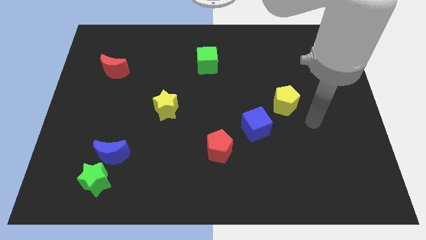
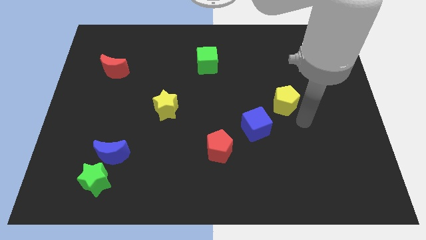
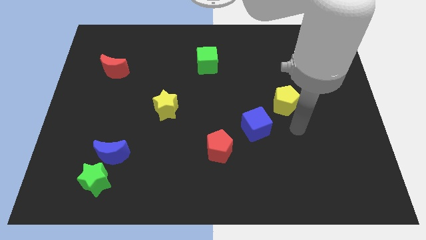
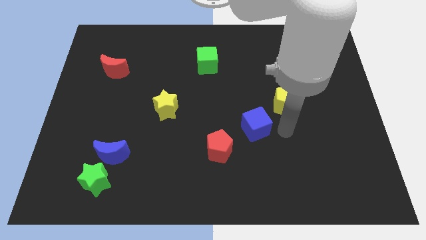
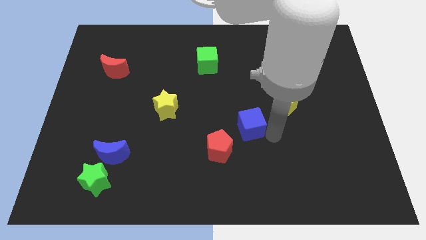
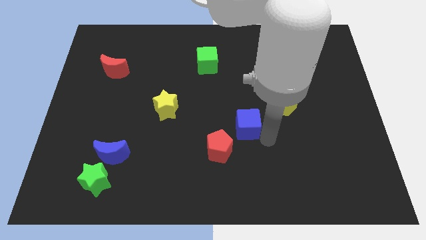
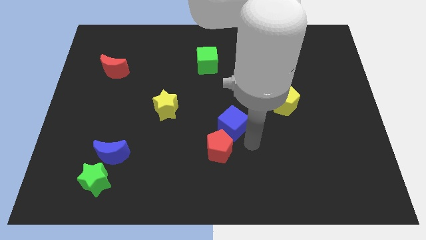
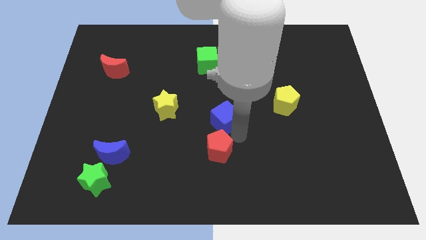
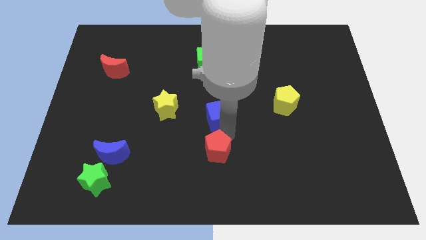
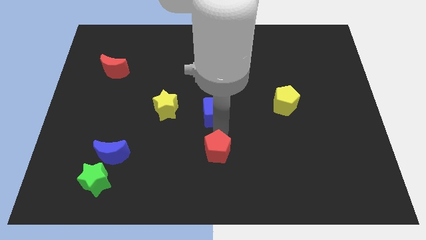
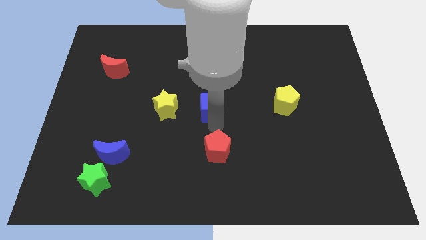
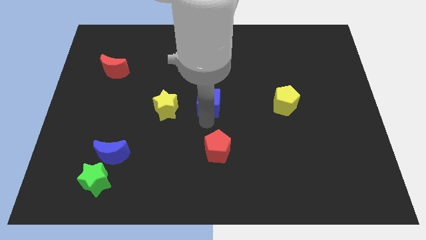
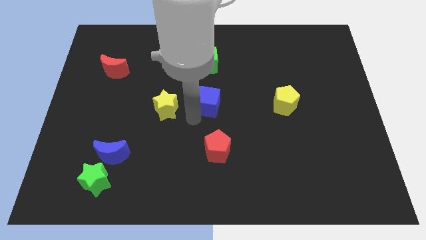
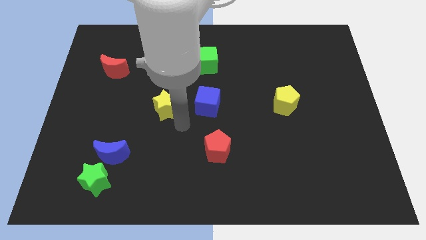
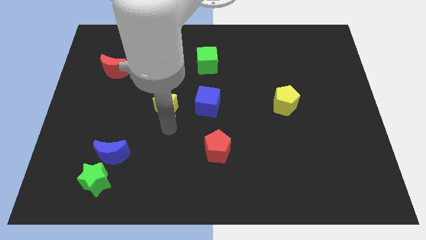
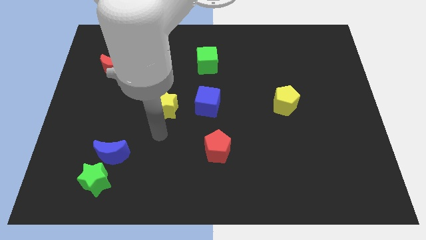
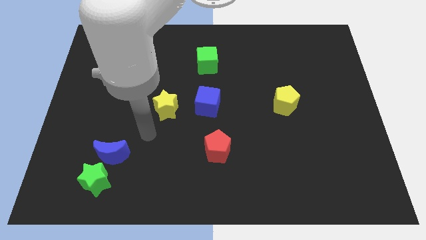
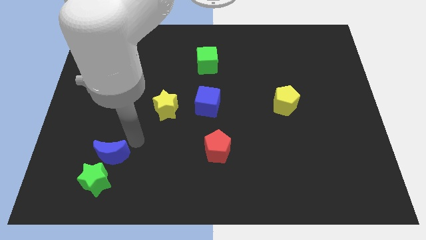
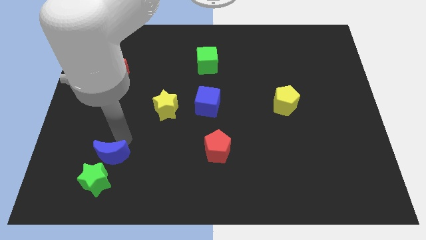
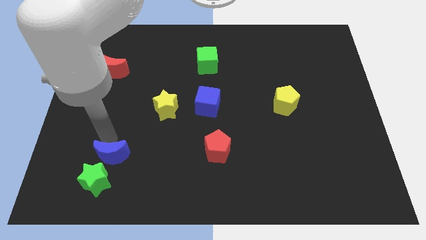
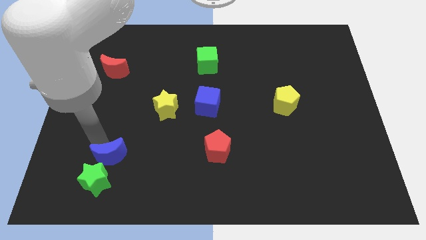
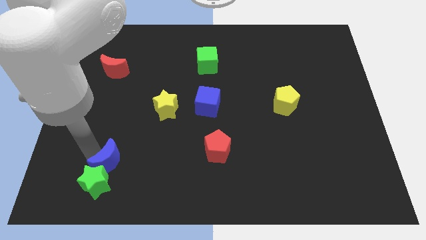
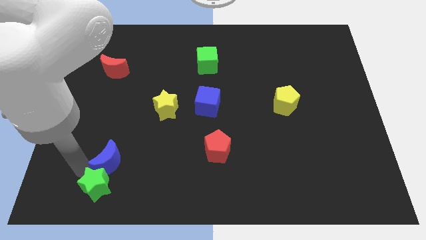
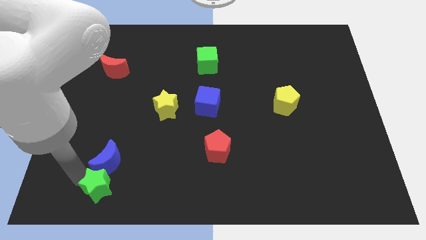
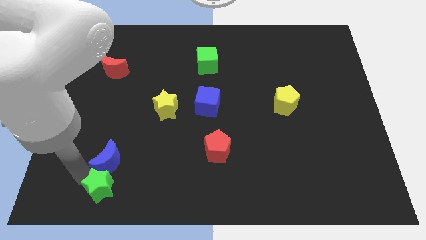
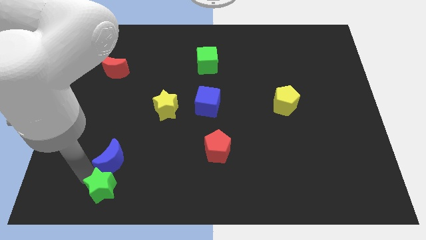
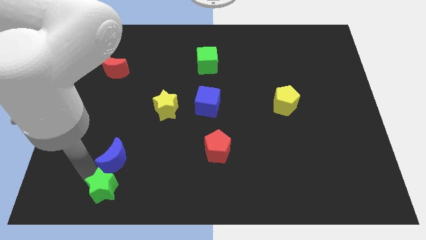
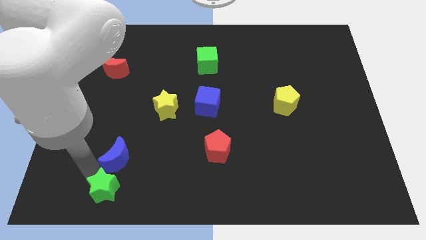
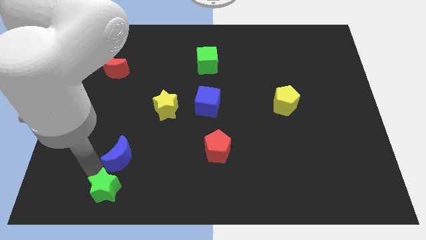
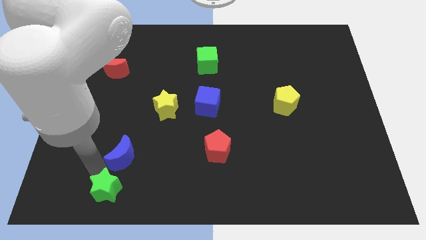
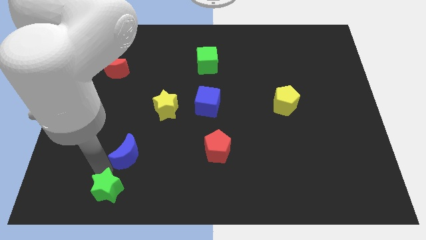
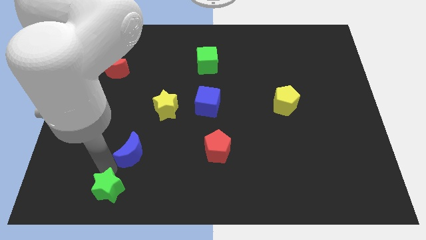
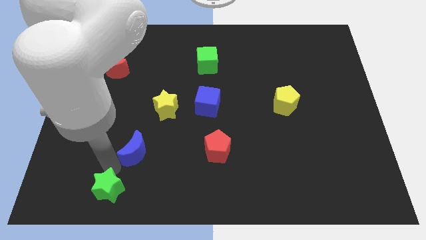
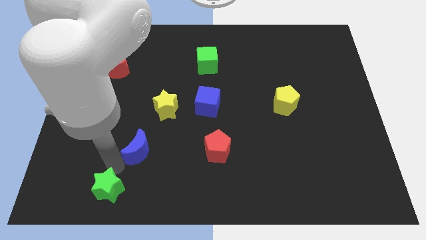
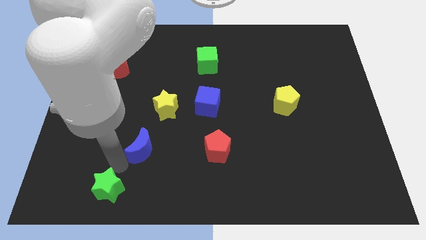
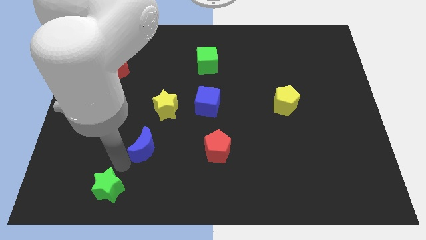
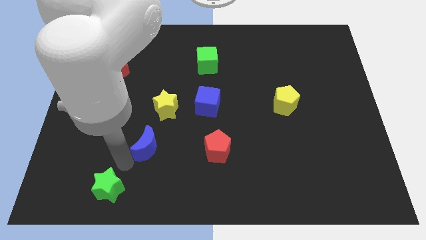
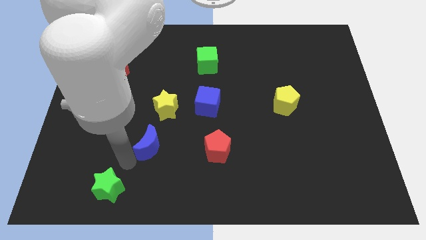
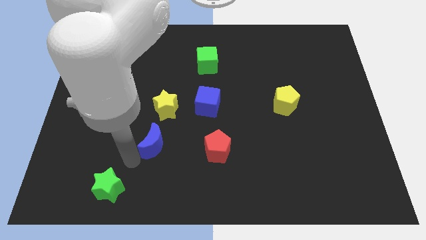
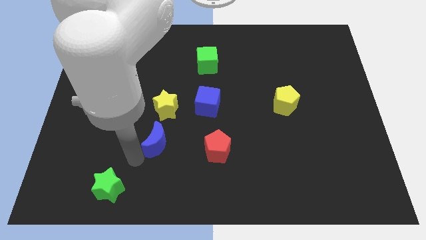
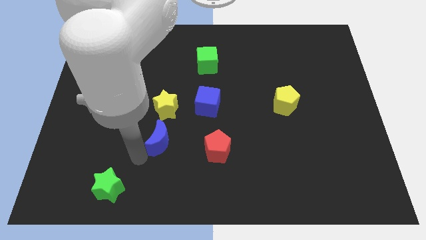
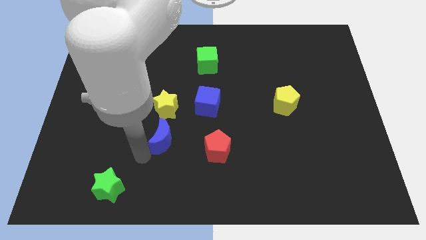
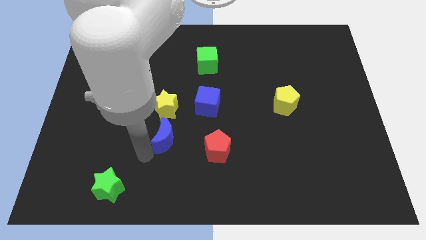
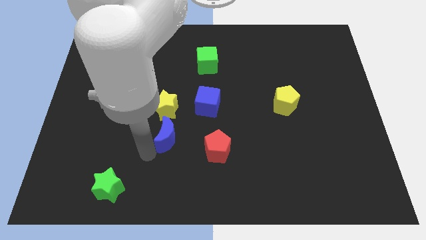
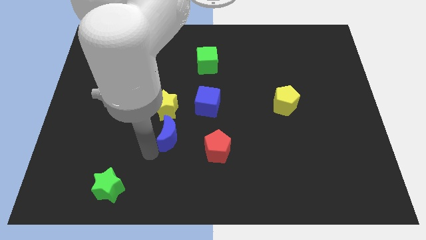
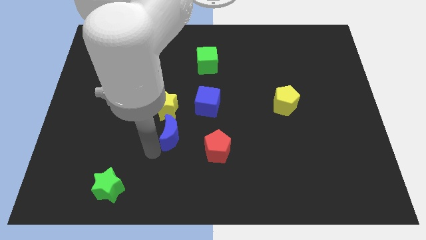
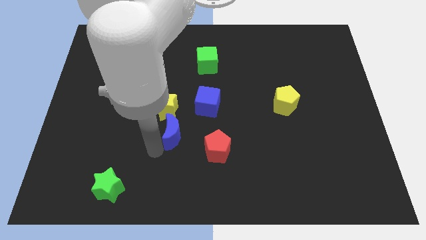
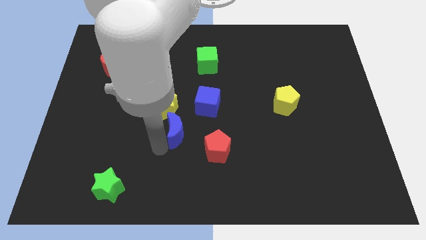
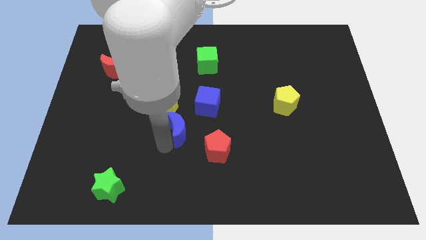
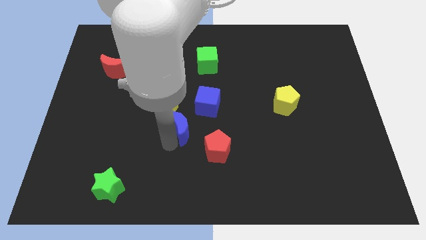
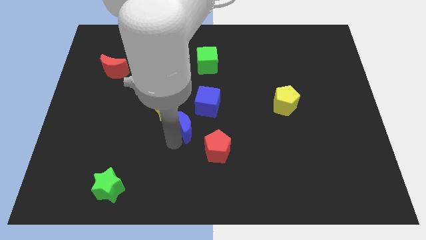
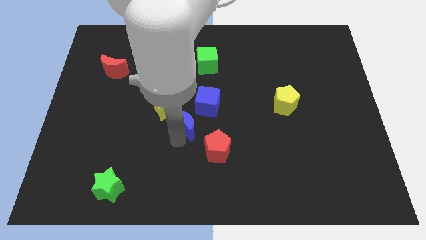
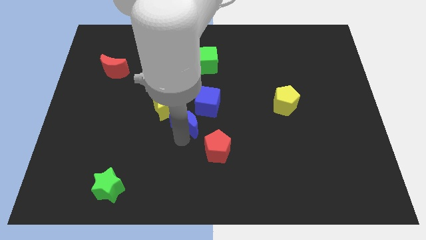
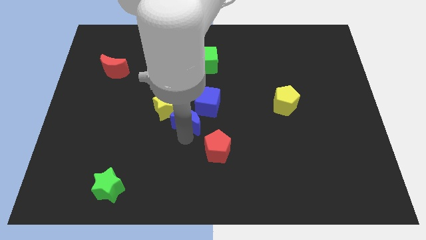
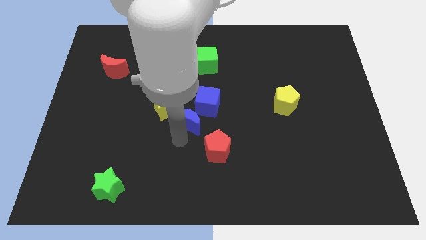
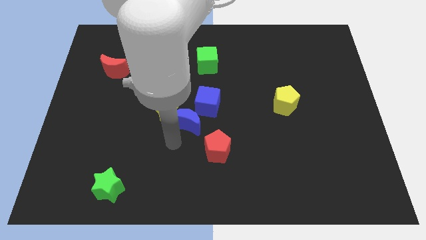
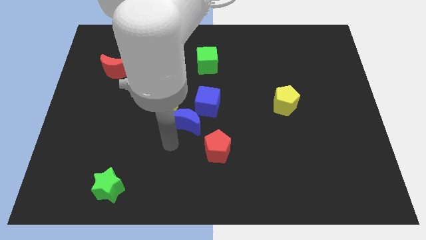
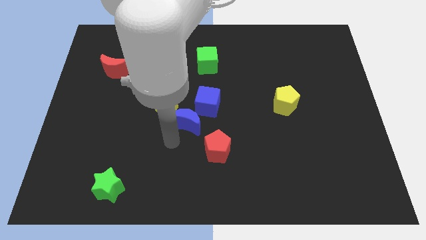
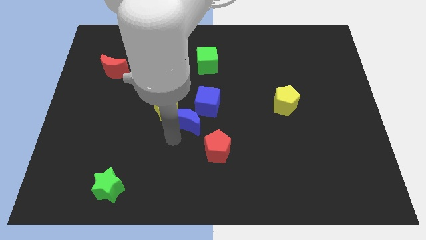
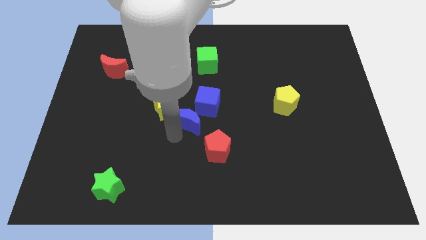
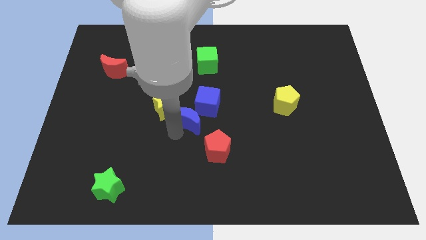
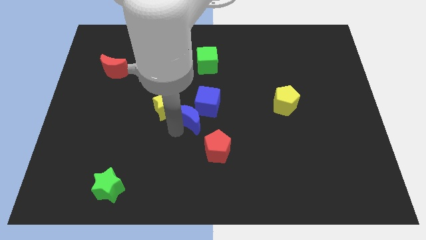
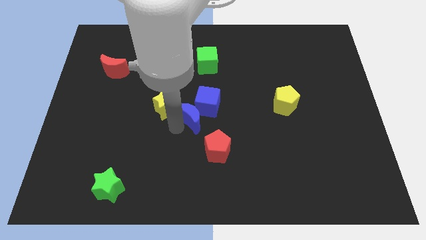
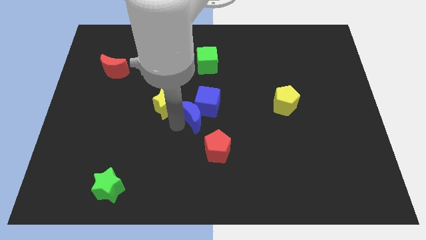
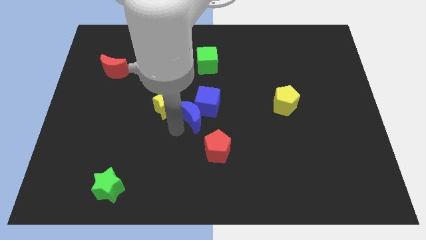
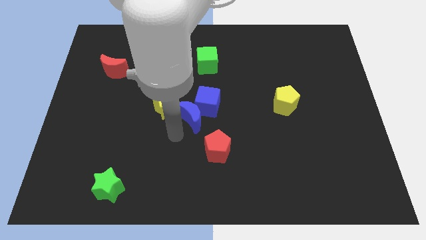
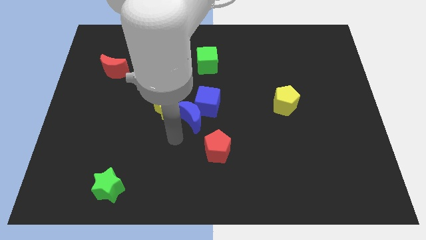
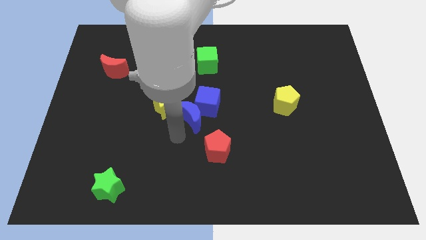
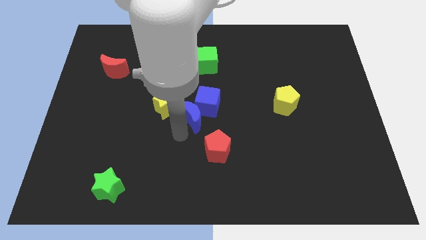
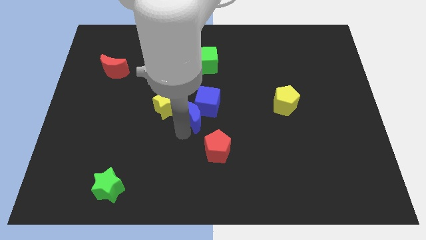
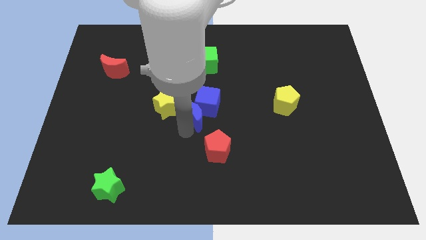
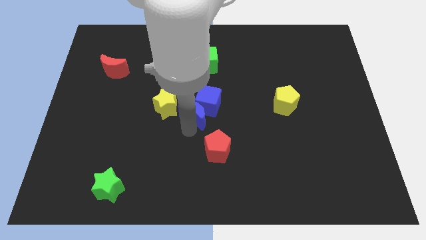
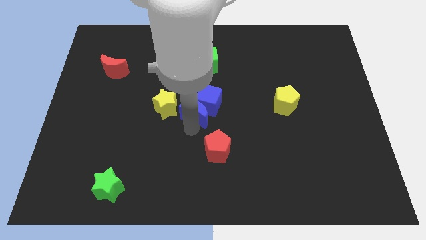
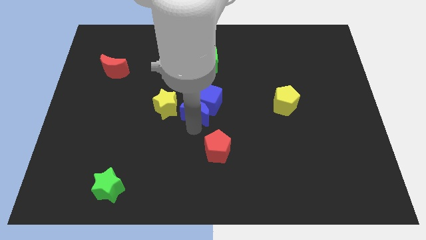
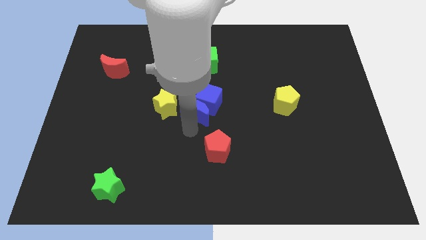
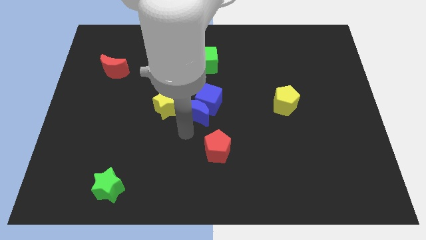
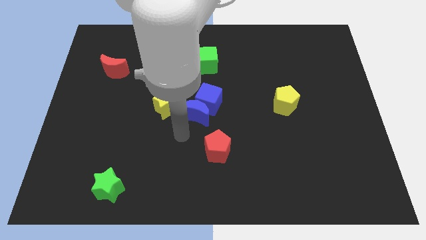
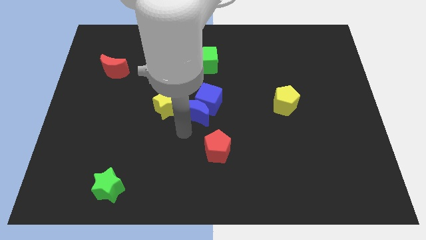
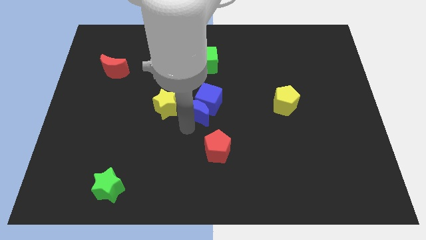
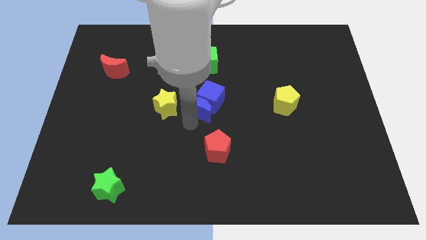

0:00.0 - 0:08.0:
move the blue moon upwards and then right

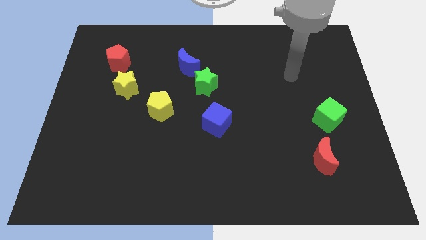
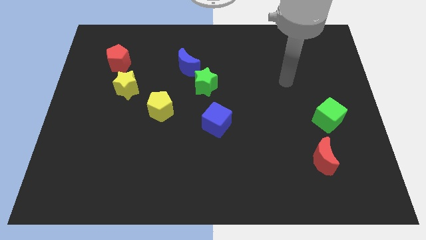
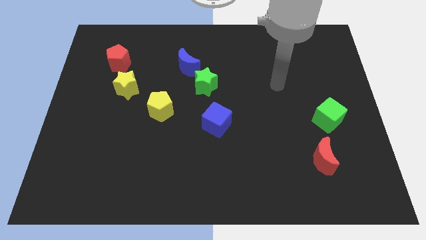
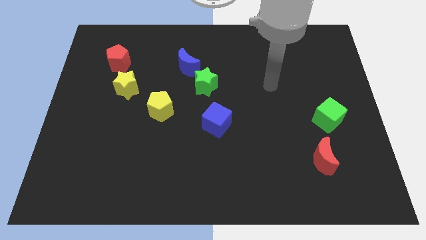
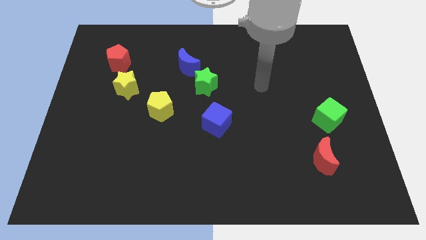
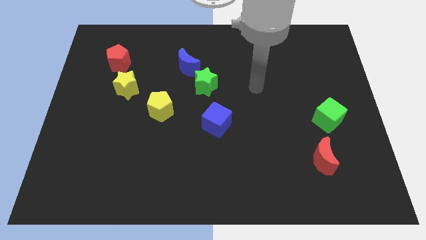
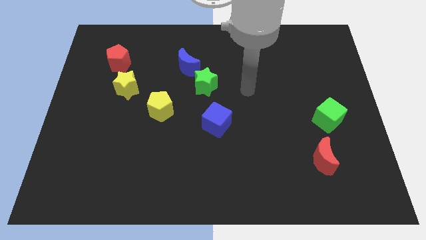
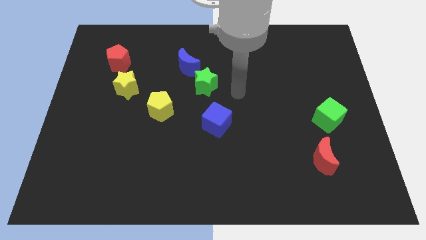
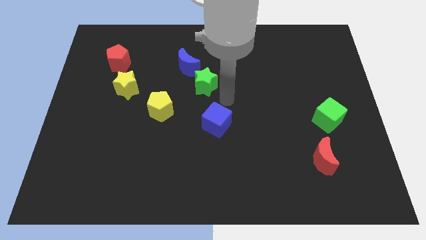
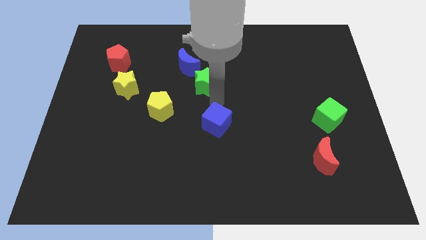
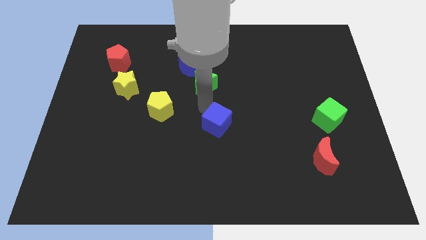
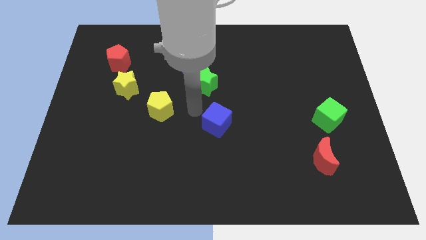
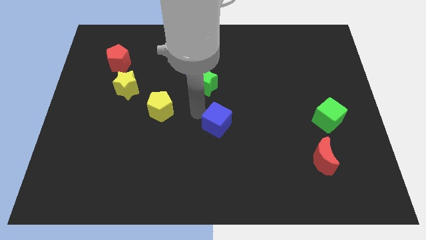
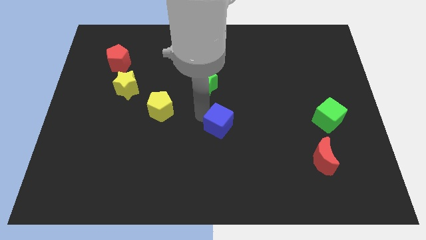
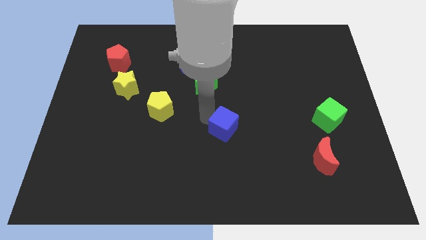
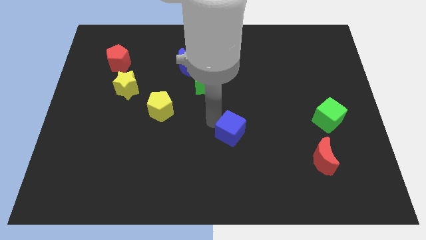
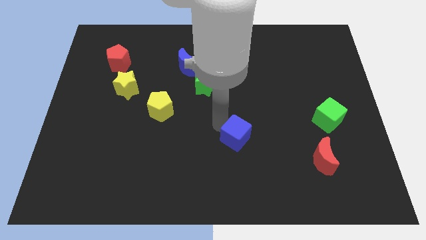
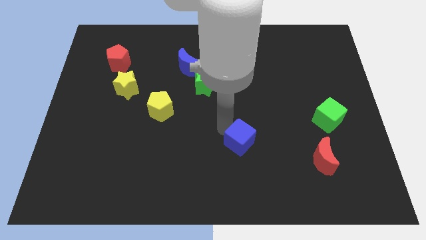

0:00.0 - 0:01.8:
slightly push the blue cube downwards and then right
